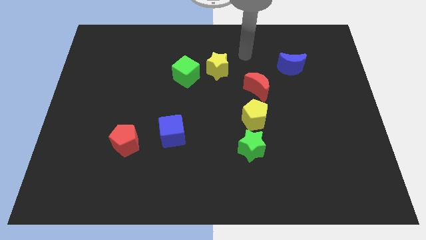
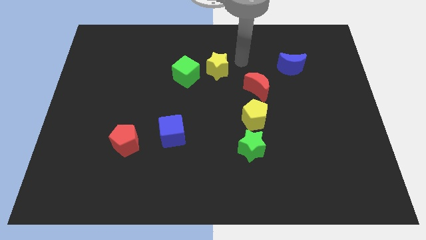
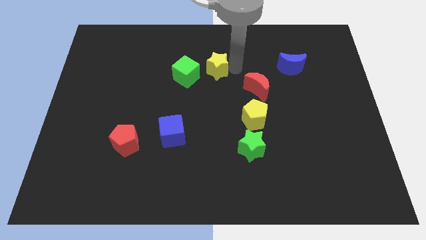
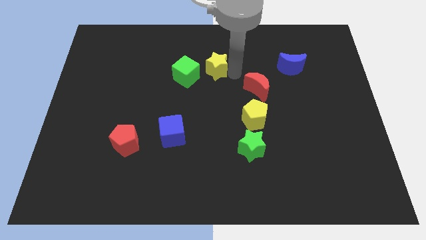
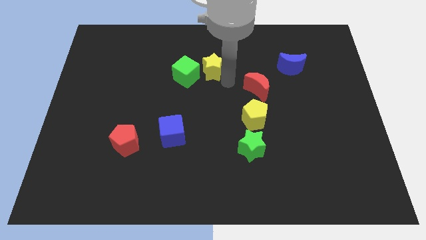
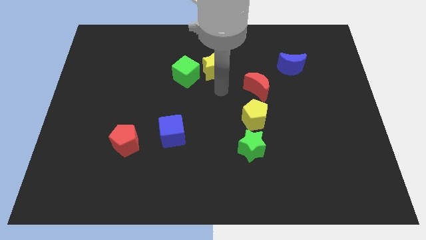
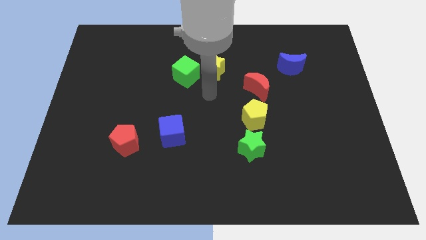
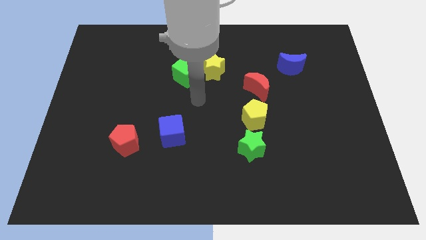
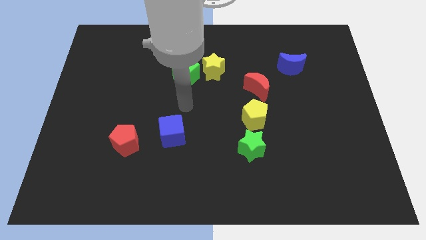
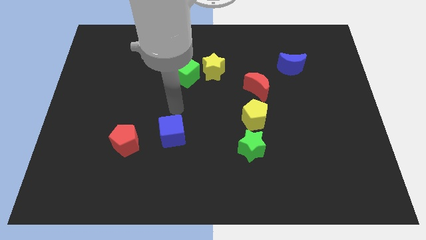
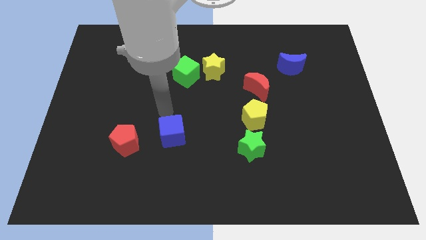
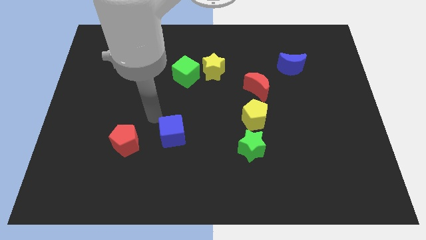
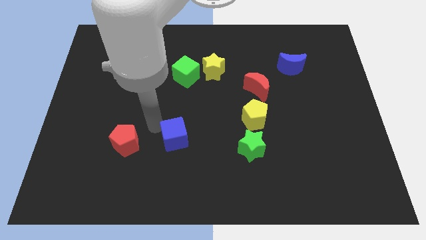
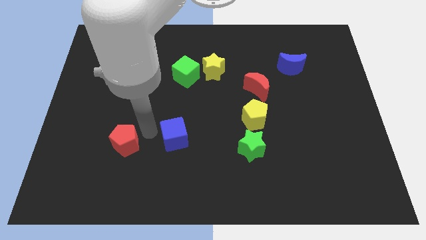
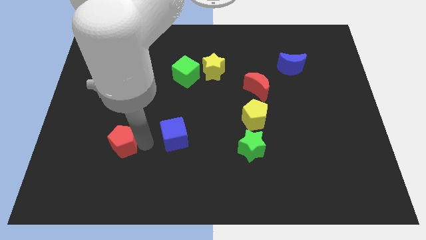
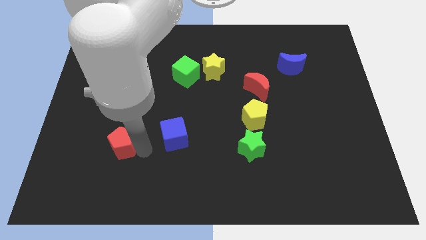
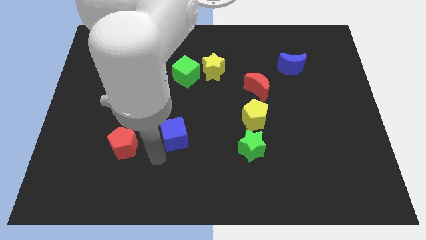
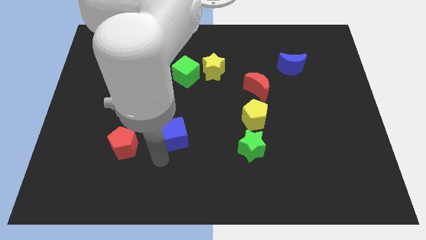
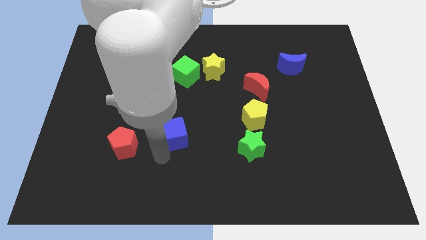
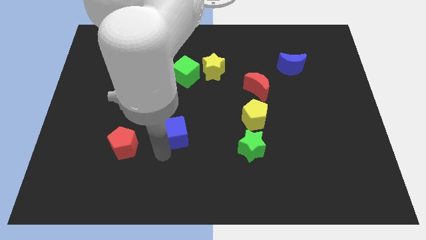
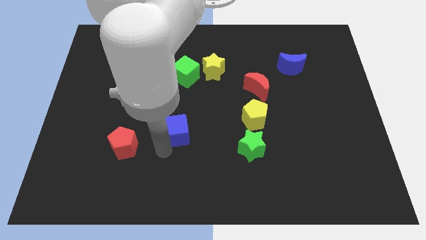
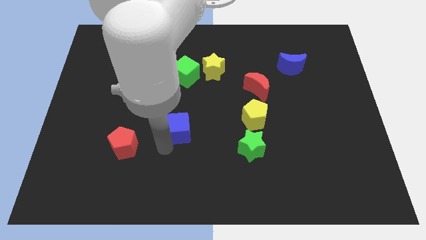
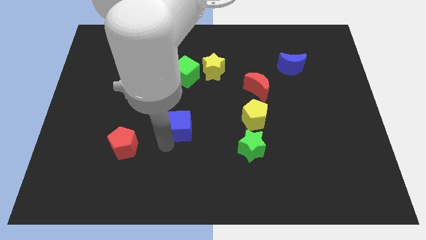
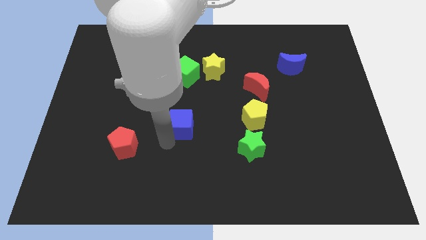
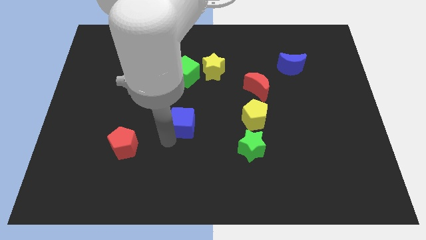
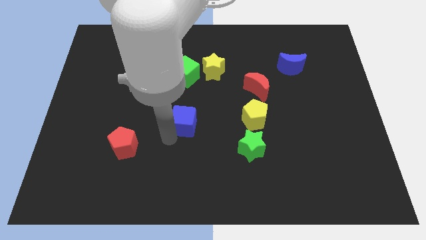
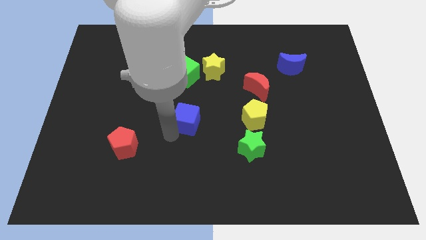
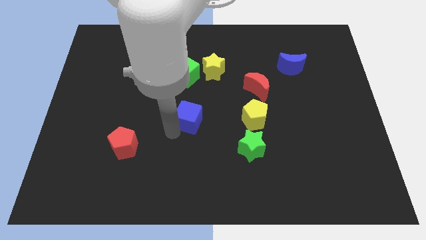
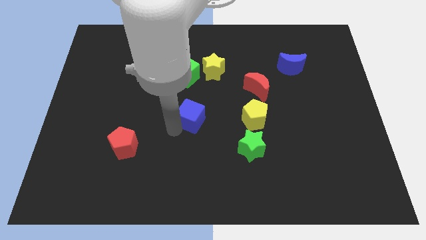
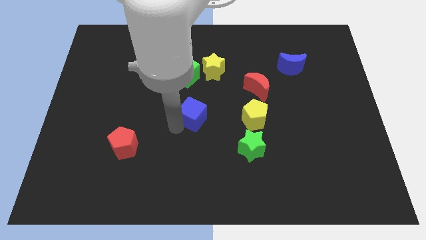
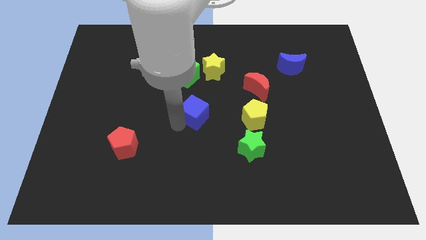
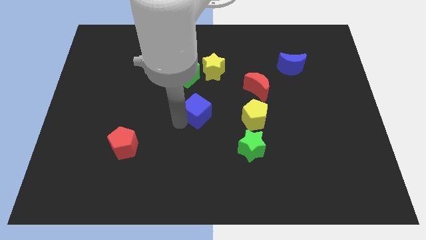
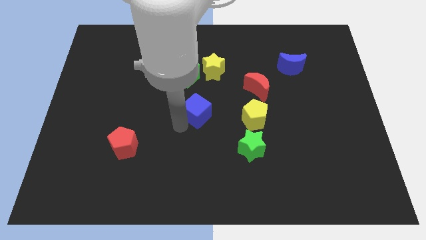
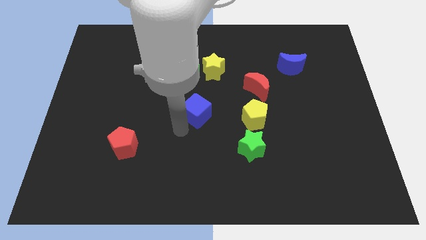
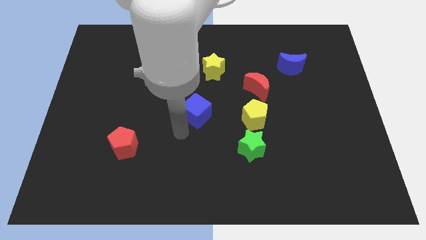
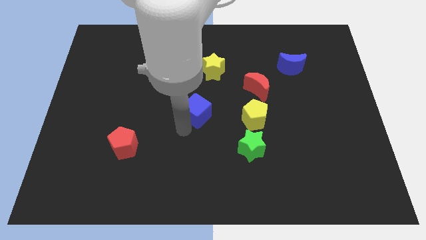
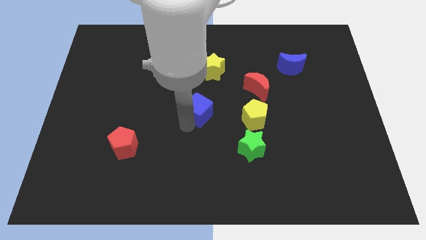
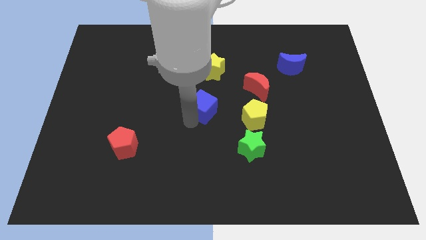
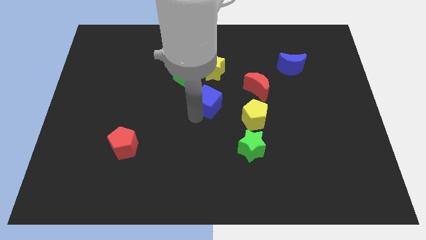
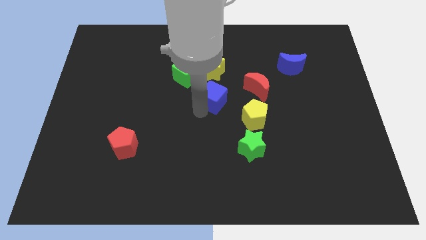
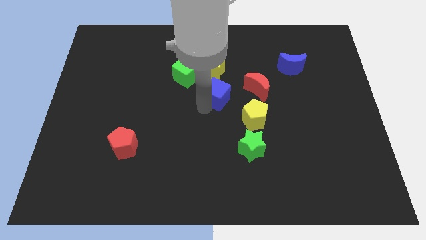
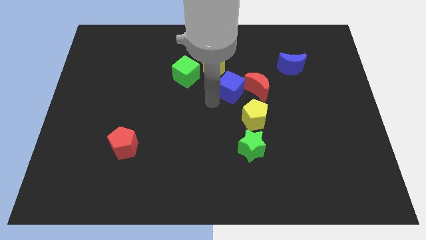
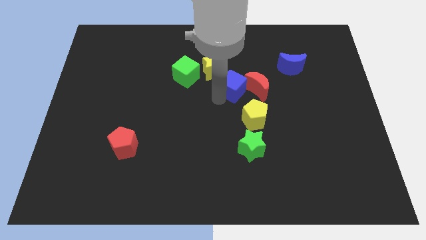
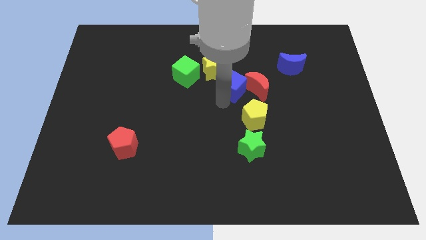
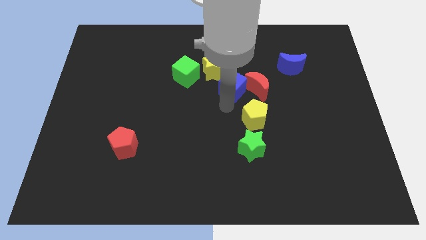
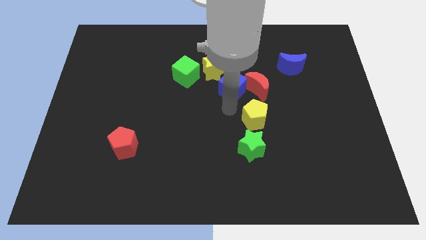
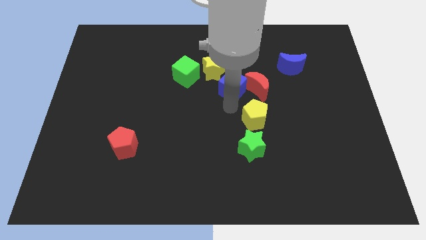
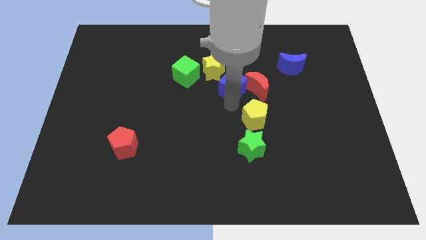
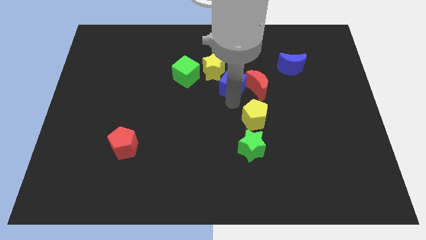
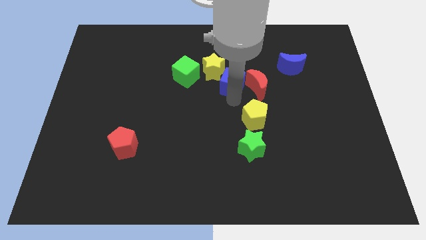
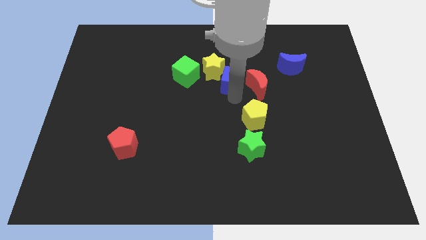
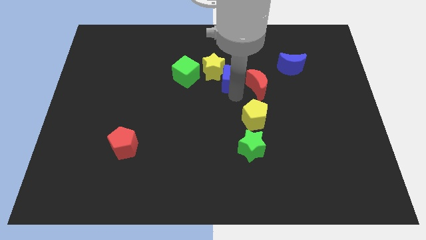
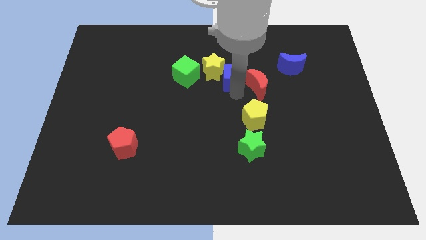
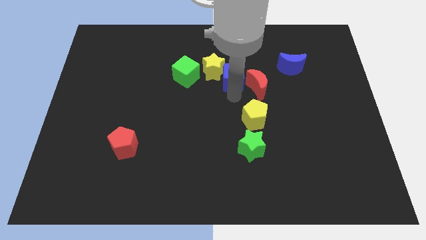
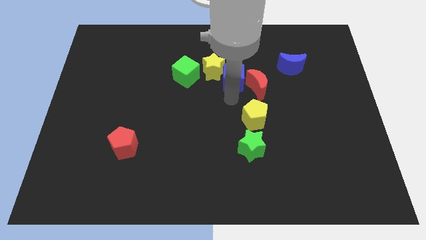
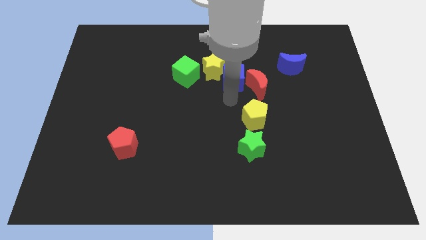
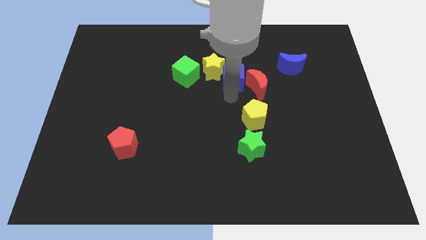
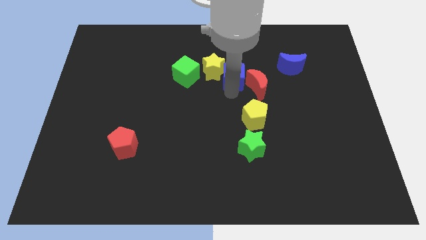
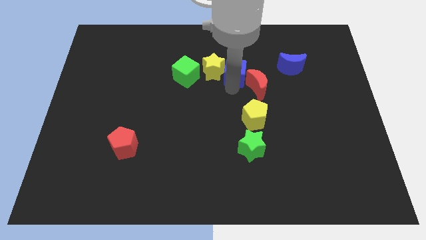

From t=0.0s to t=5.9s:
slide the blue cube diagonally up and to the right of the yellow star

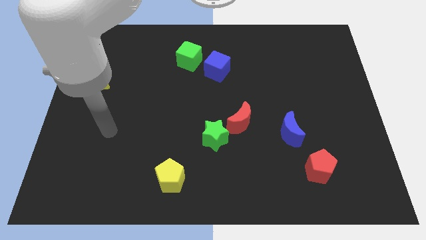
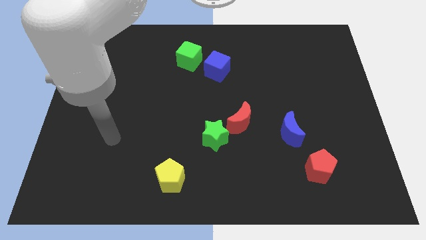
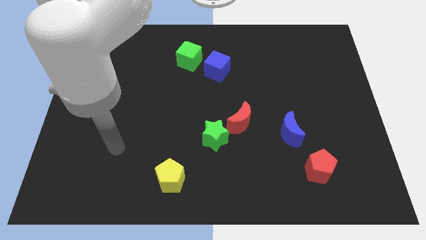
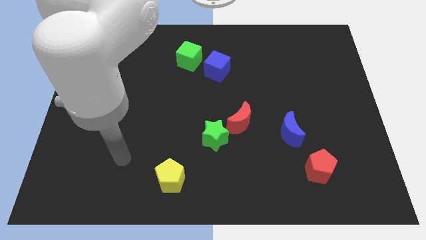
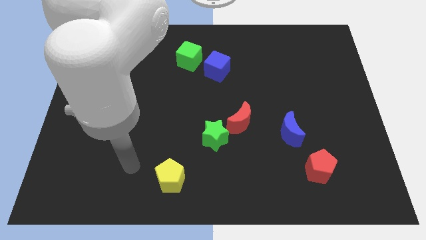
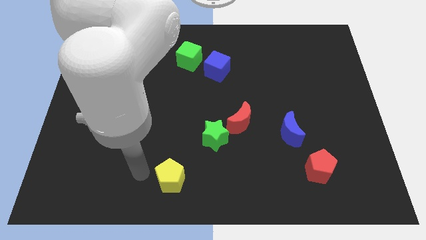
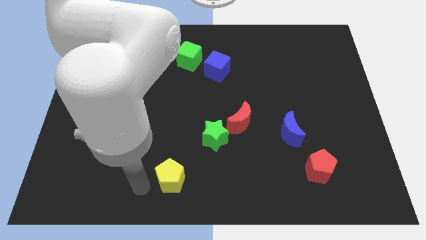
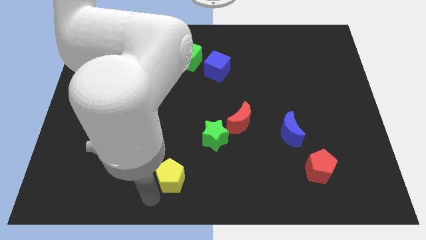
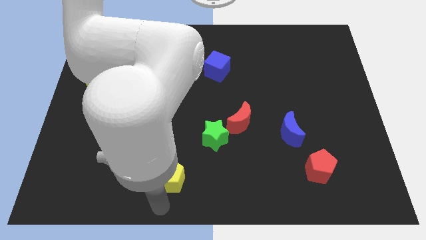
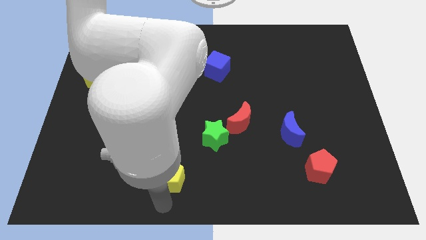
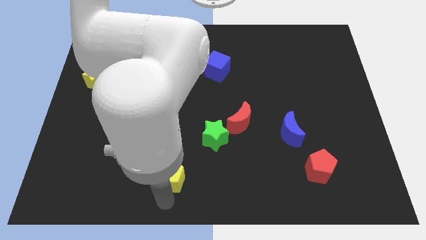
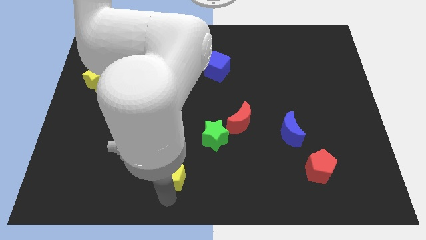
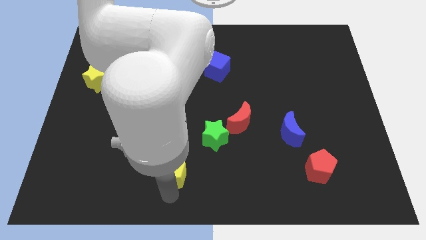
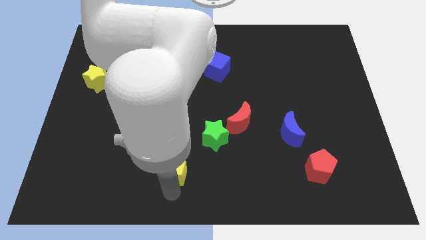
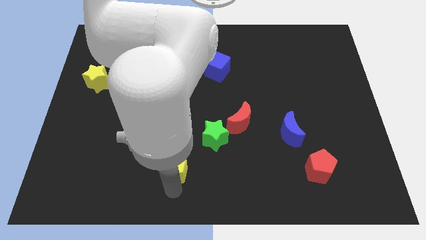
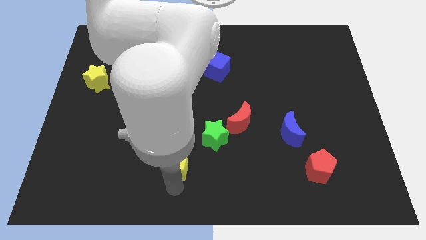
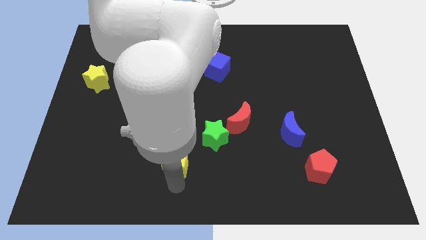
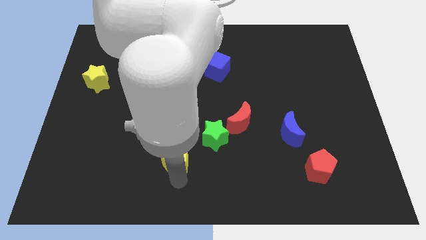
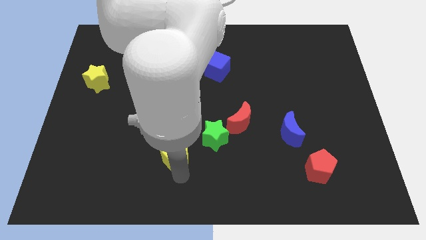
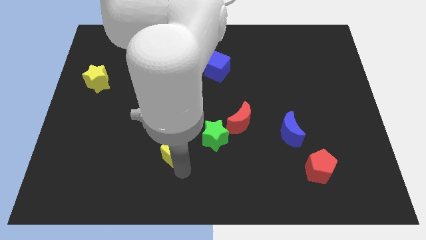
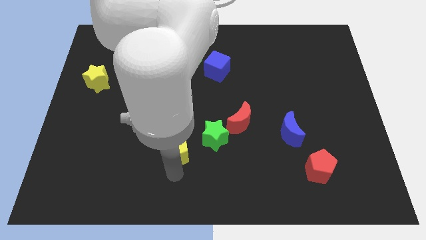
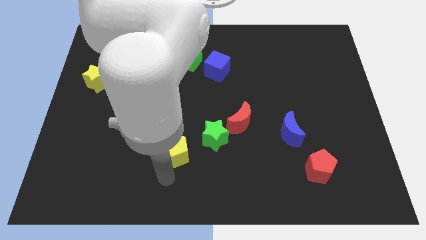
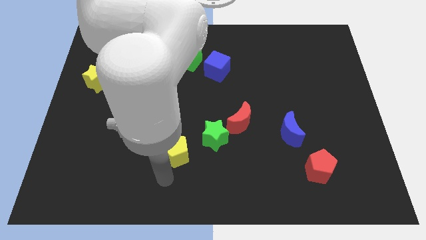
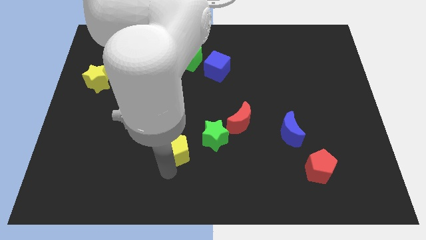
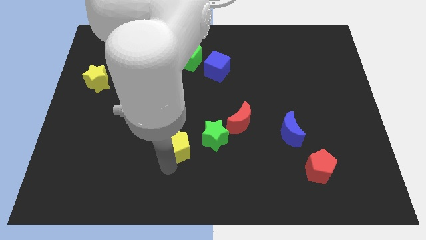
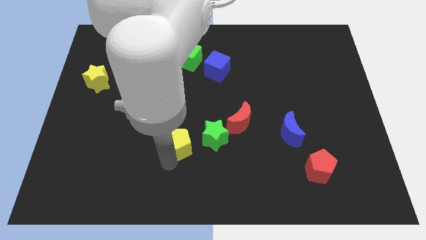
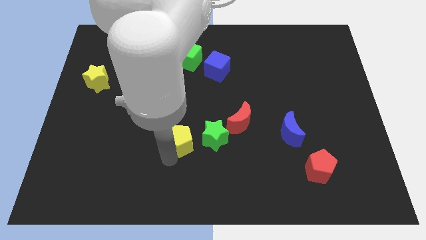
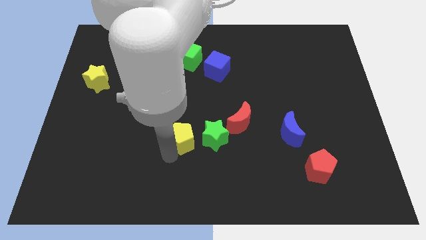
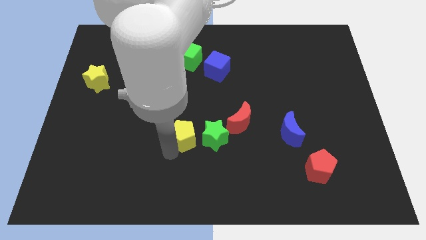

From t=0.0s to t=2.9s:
put the yellow pentagon to the top left of the green star
